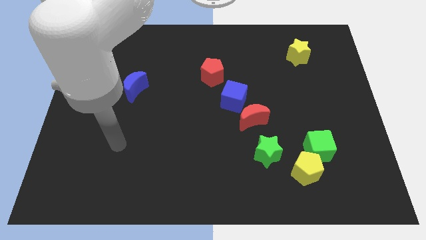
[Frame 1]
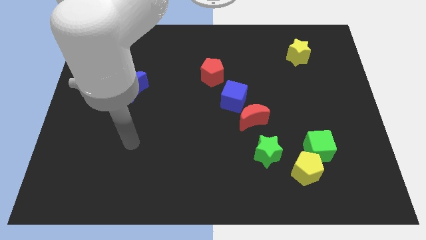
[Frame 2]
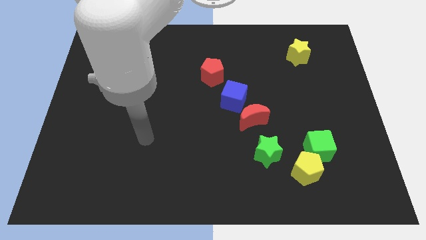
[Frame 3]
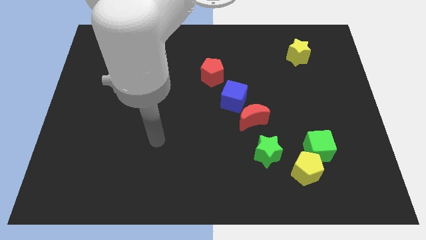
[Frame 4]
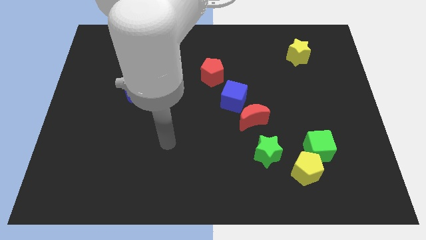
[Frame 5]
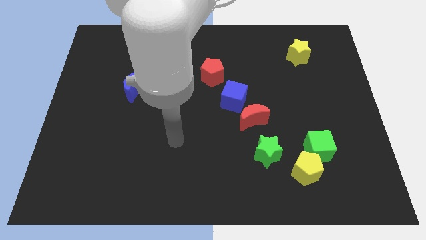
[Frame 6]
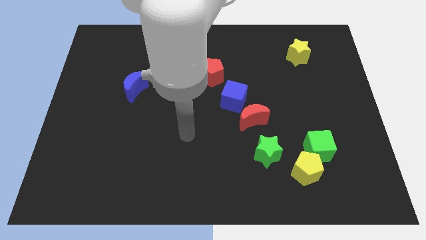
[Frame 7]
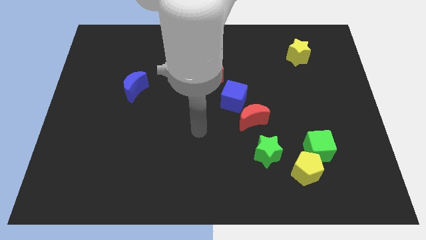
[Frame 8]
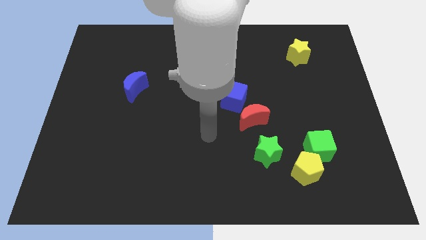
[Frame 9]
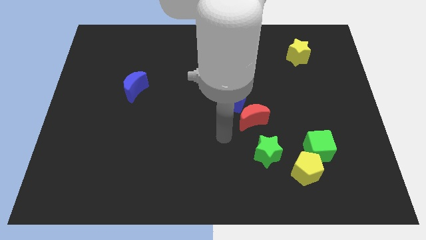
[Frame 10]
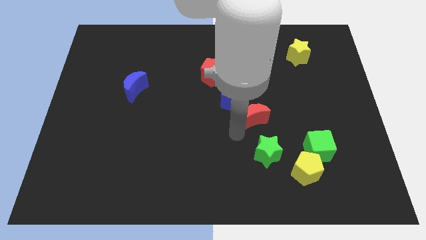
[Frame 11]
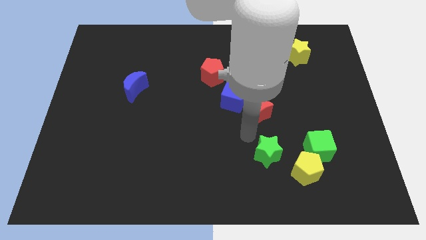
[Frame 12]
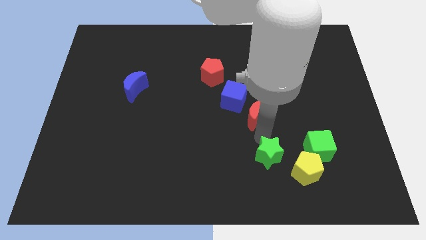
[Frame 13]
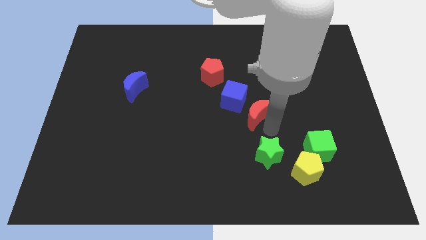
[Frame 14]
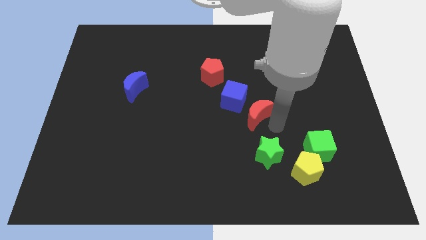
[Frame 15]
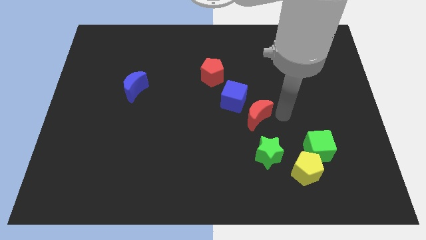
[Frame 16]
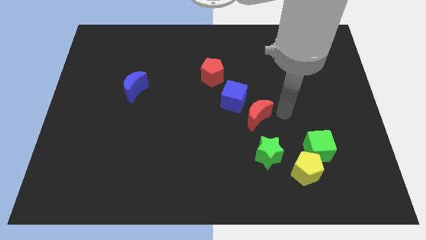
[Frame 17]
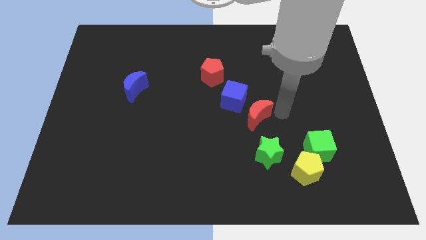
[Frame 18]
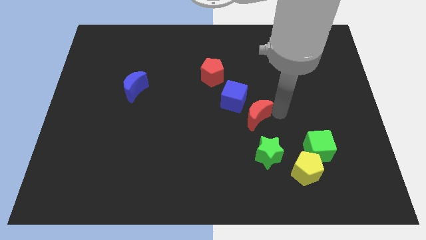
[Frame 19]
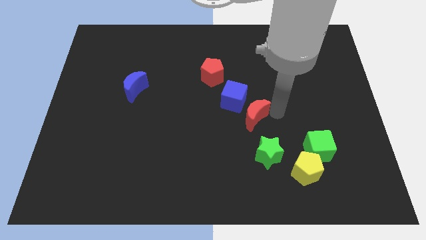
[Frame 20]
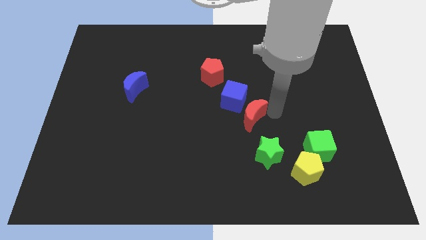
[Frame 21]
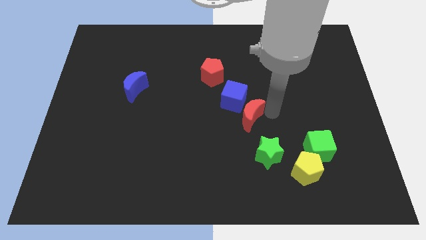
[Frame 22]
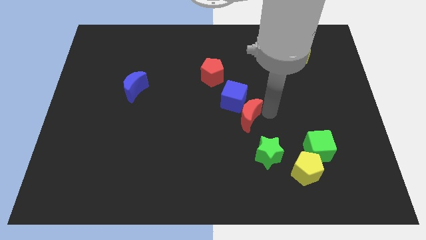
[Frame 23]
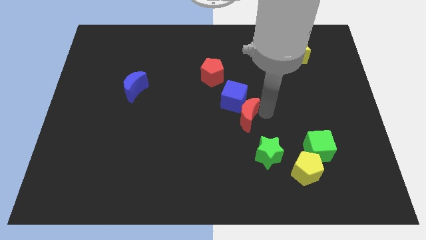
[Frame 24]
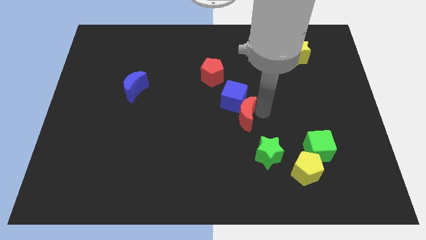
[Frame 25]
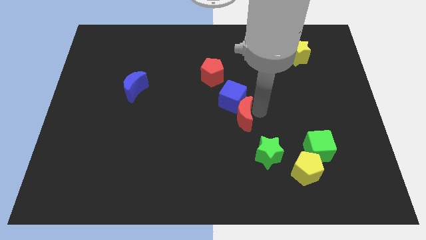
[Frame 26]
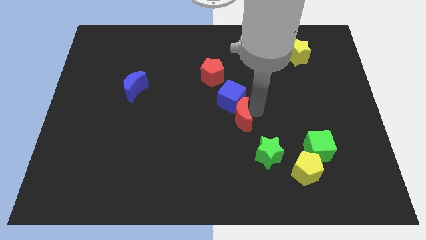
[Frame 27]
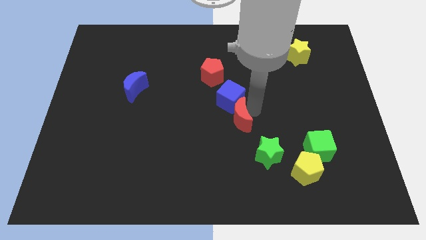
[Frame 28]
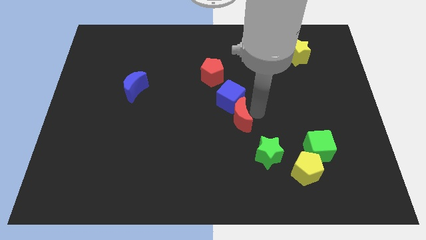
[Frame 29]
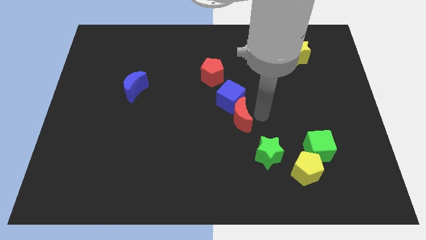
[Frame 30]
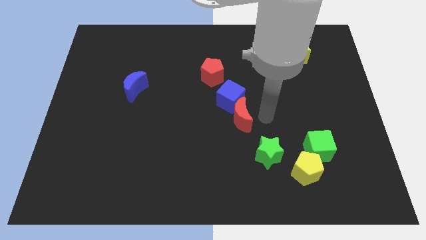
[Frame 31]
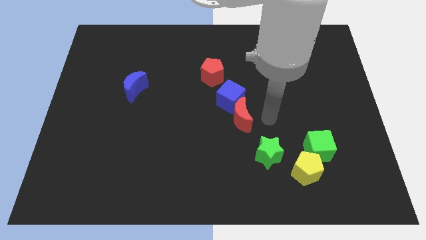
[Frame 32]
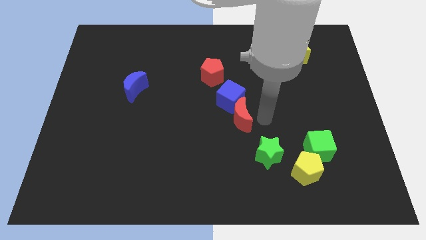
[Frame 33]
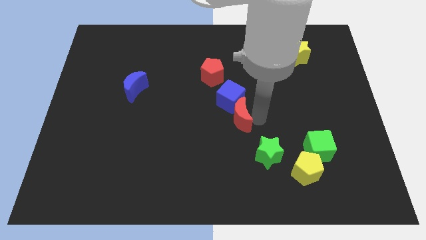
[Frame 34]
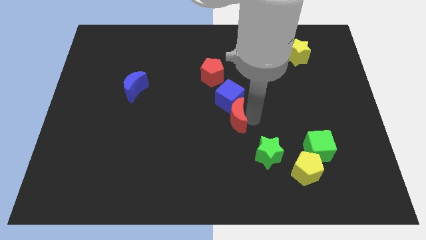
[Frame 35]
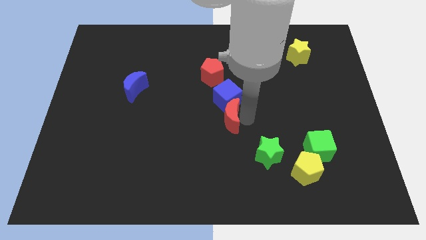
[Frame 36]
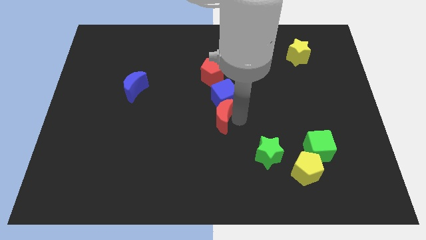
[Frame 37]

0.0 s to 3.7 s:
move the red moon slightly left

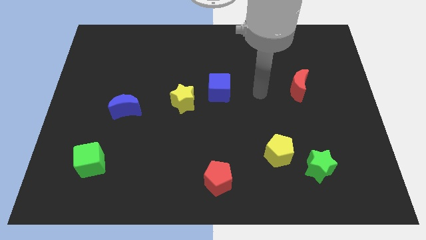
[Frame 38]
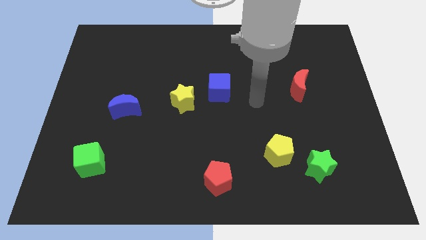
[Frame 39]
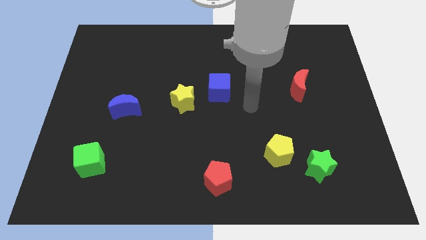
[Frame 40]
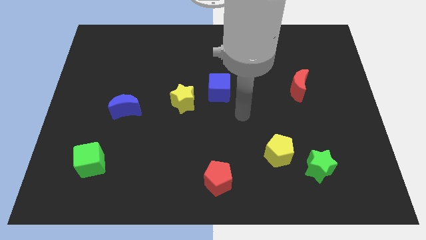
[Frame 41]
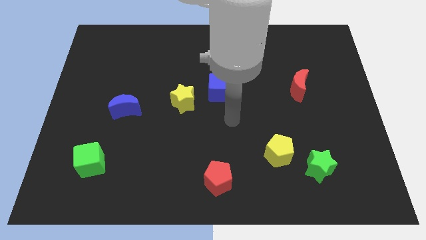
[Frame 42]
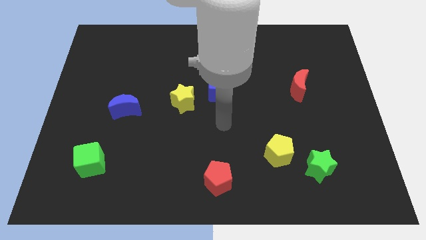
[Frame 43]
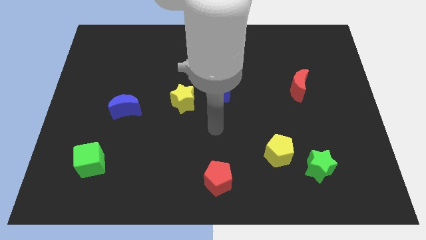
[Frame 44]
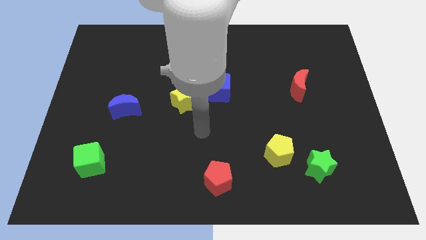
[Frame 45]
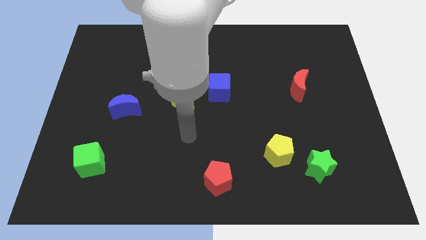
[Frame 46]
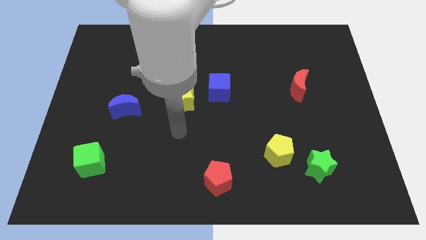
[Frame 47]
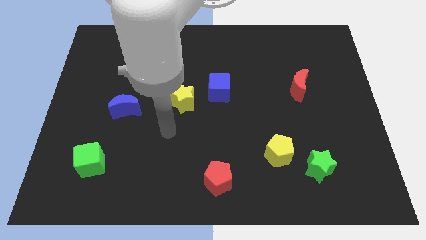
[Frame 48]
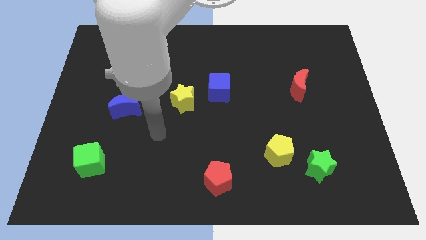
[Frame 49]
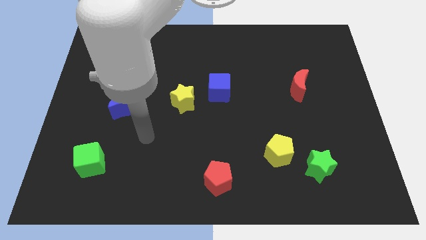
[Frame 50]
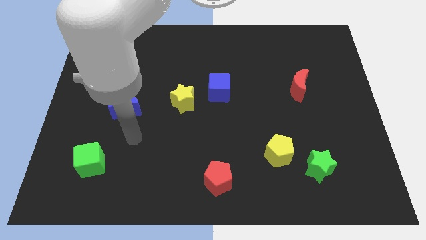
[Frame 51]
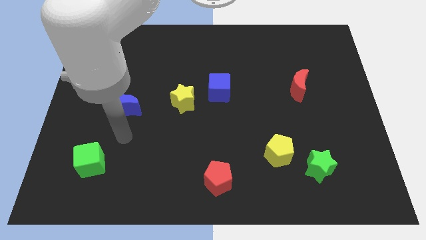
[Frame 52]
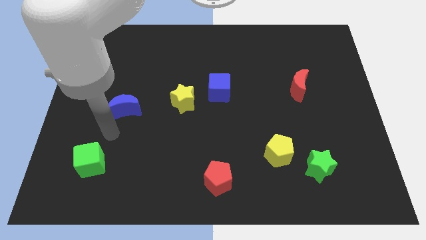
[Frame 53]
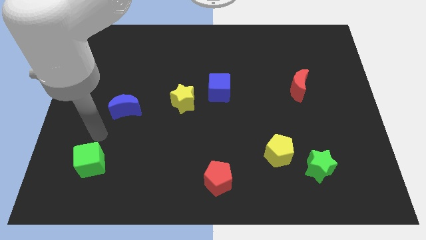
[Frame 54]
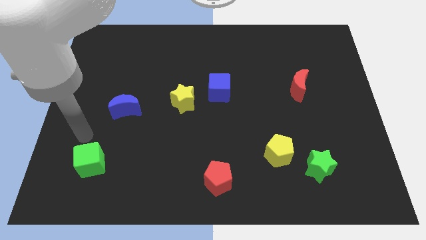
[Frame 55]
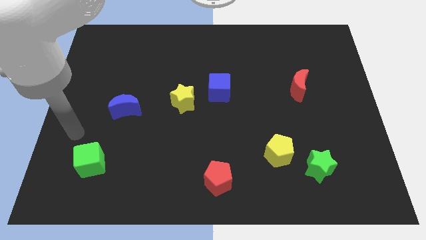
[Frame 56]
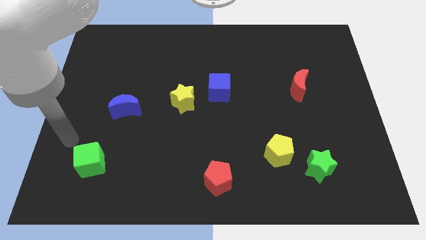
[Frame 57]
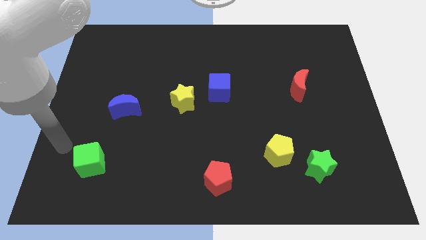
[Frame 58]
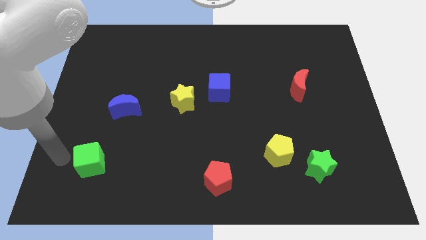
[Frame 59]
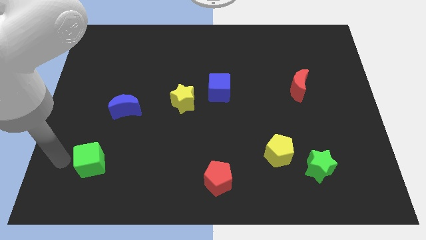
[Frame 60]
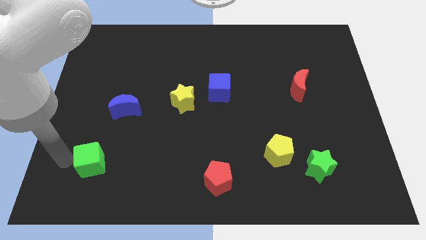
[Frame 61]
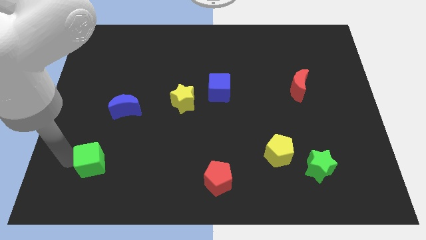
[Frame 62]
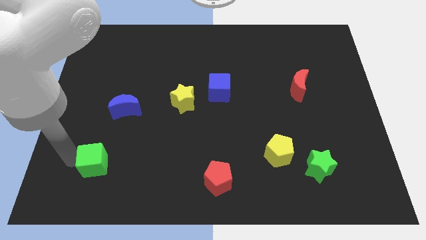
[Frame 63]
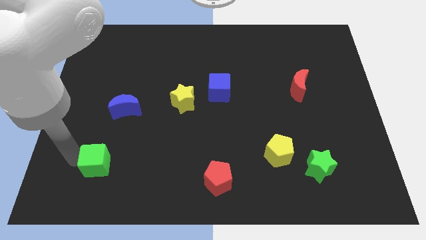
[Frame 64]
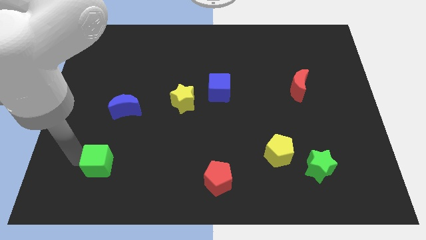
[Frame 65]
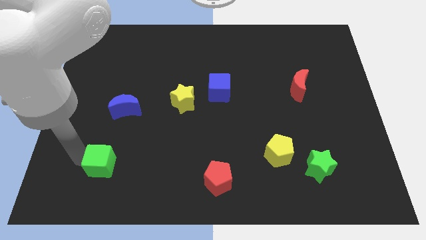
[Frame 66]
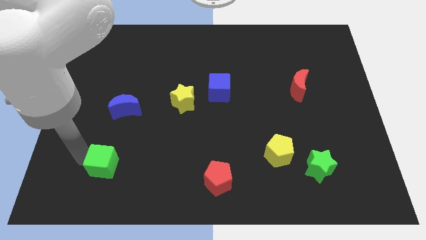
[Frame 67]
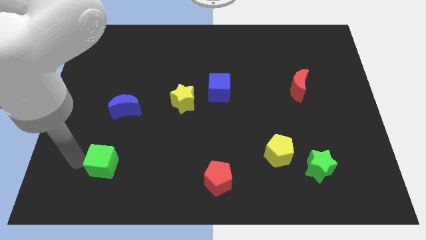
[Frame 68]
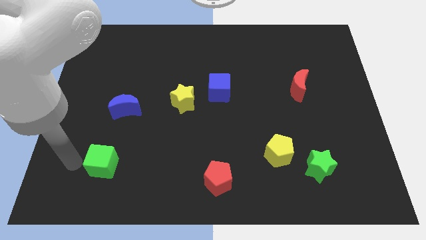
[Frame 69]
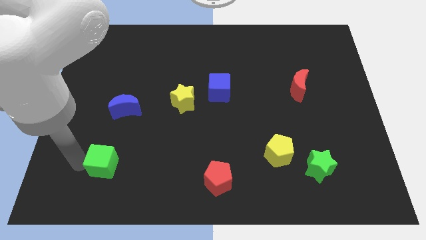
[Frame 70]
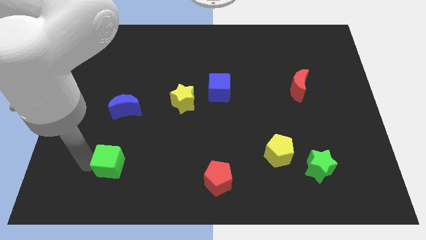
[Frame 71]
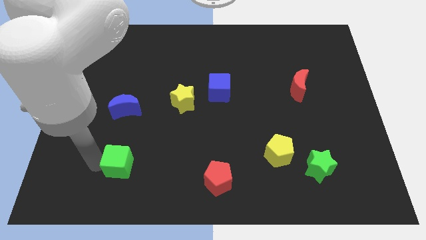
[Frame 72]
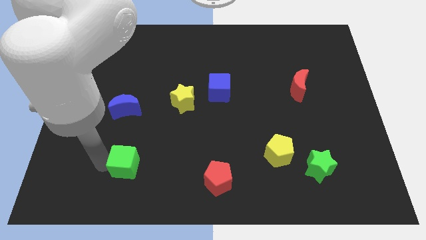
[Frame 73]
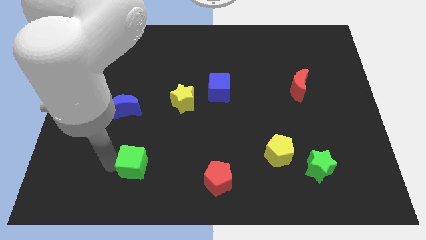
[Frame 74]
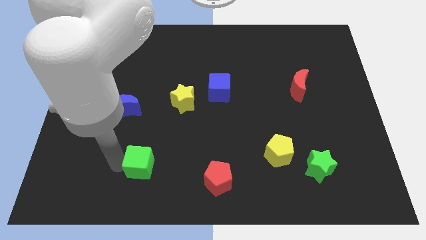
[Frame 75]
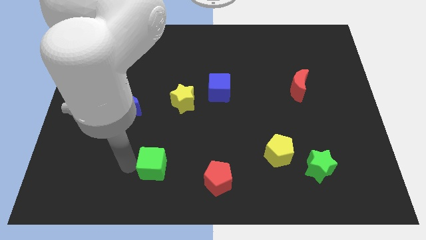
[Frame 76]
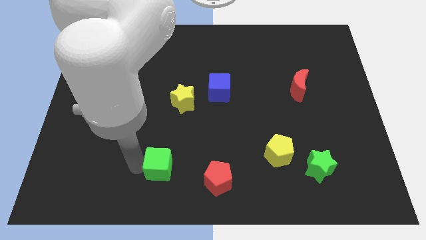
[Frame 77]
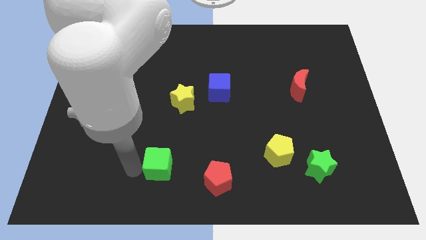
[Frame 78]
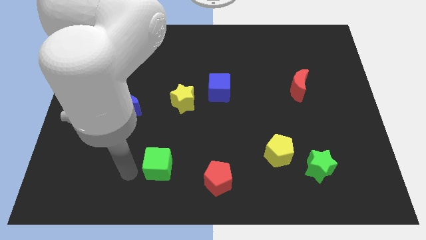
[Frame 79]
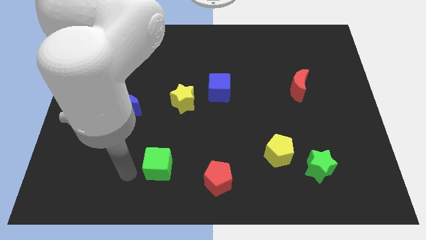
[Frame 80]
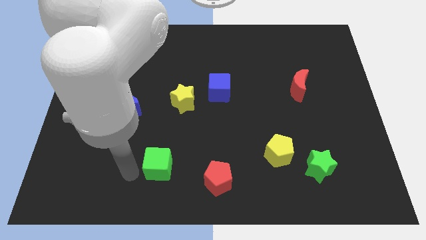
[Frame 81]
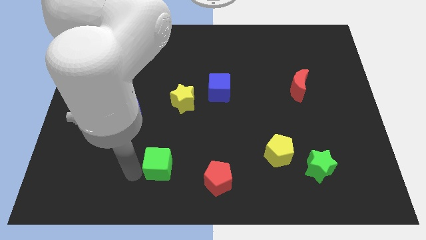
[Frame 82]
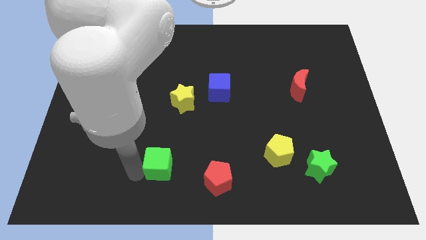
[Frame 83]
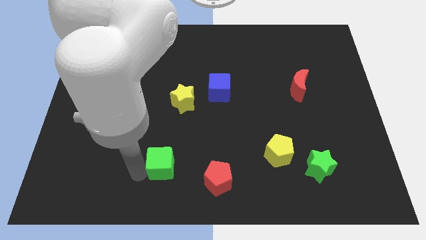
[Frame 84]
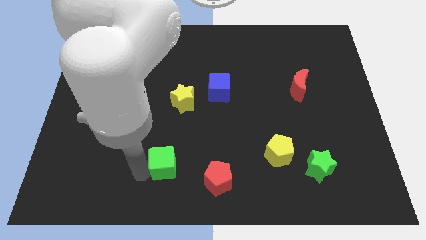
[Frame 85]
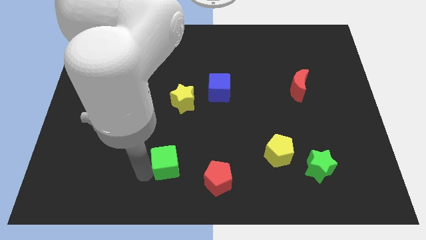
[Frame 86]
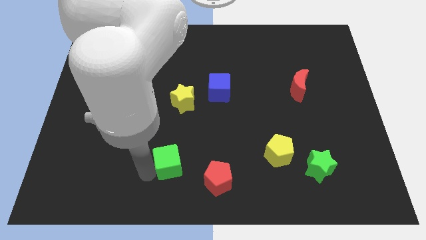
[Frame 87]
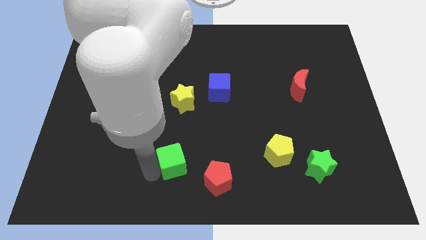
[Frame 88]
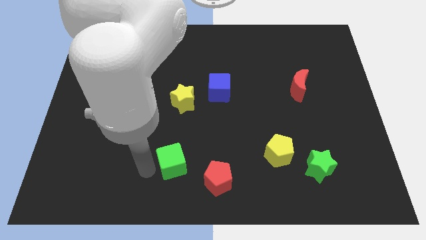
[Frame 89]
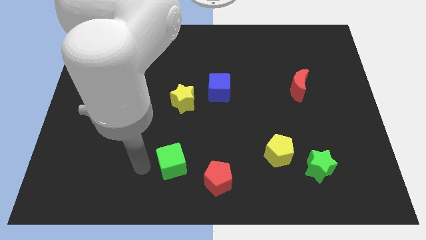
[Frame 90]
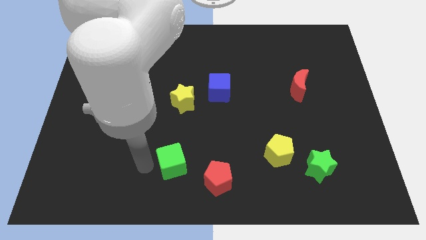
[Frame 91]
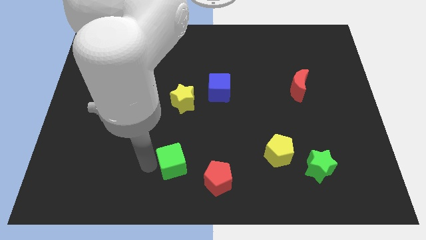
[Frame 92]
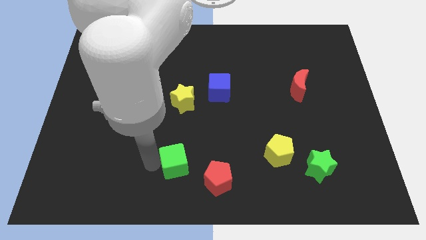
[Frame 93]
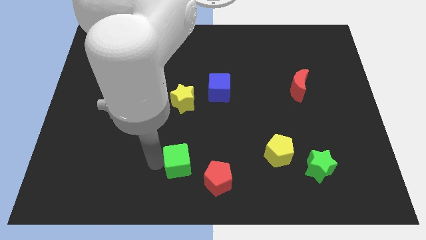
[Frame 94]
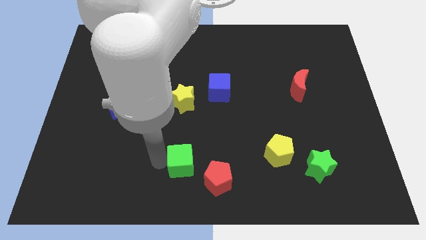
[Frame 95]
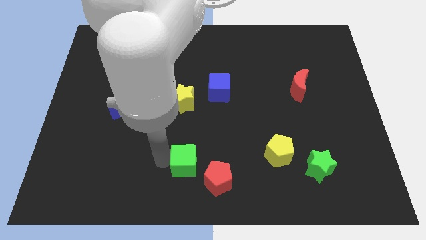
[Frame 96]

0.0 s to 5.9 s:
push the green cube right
